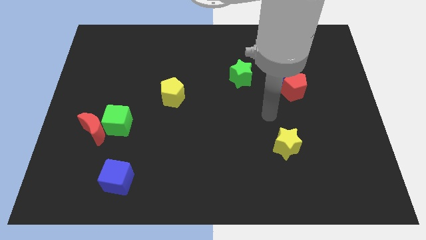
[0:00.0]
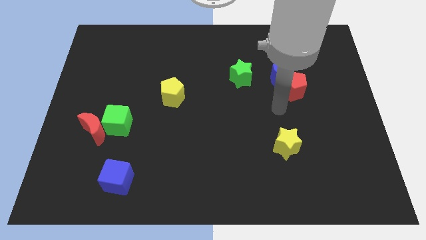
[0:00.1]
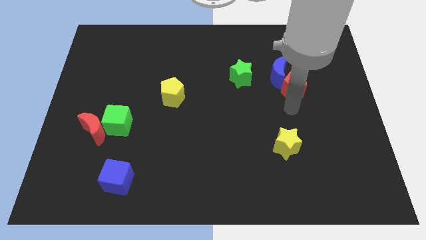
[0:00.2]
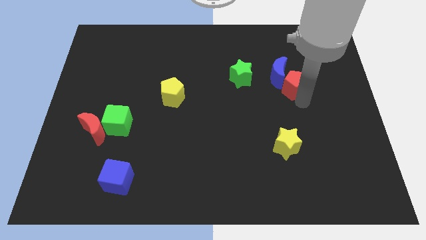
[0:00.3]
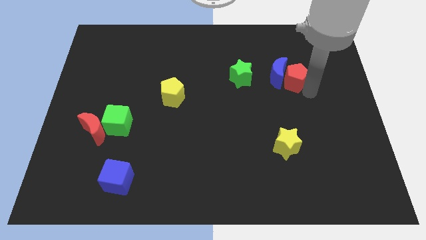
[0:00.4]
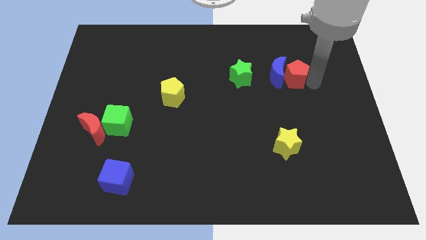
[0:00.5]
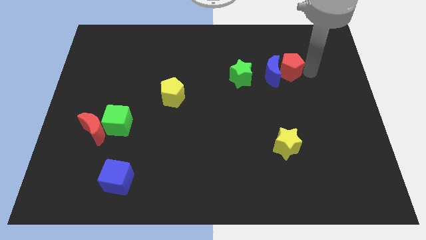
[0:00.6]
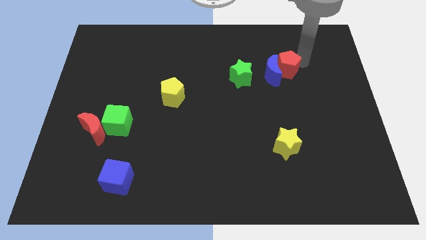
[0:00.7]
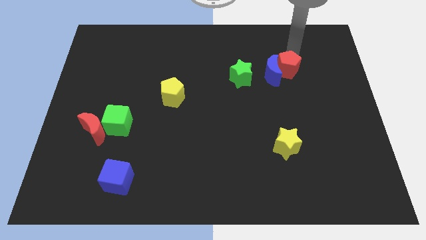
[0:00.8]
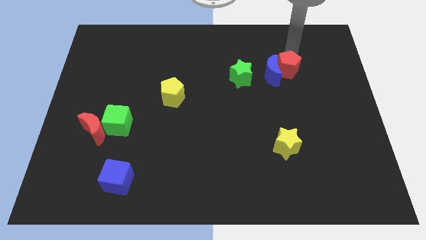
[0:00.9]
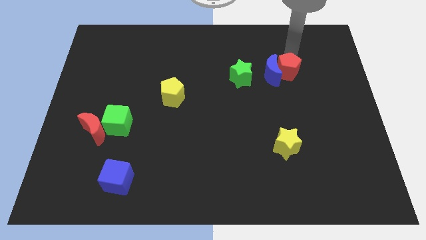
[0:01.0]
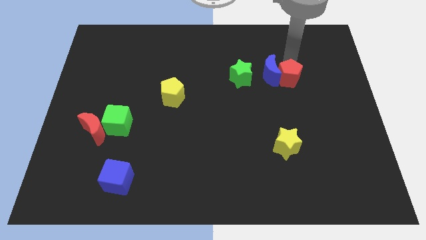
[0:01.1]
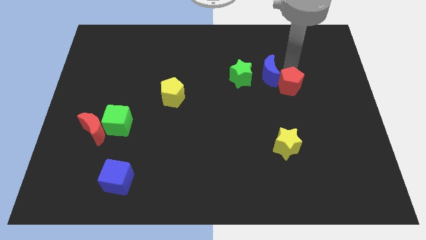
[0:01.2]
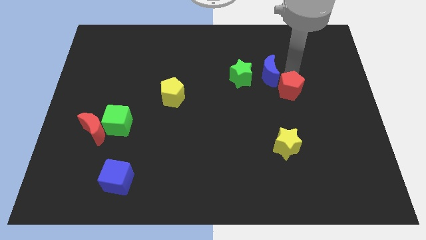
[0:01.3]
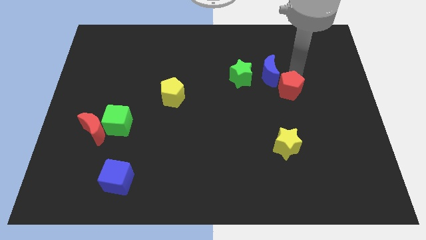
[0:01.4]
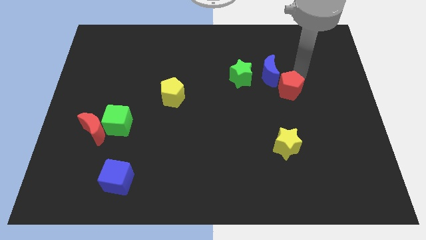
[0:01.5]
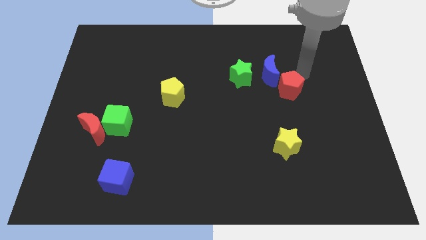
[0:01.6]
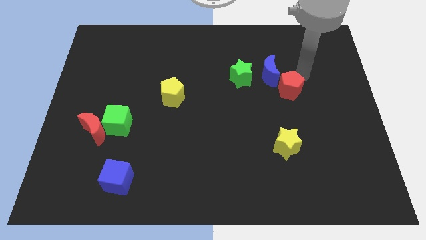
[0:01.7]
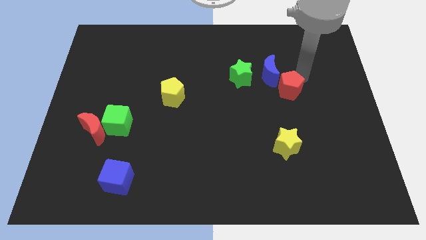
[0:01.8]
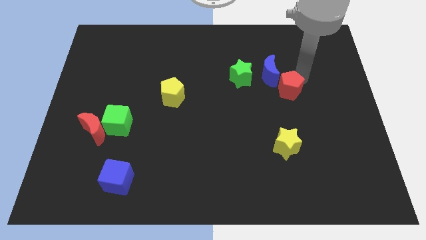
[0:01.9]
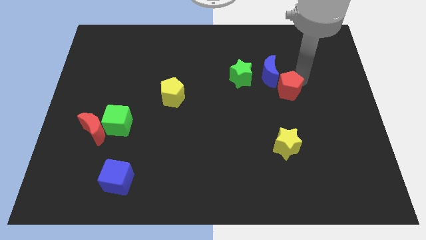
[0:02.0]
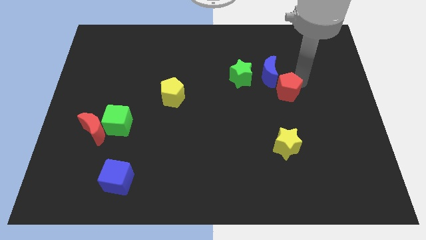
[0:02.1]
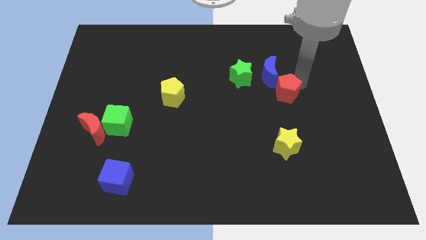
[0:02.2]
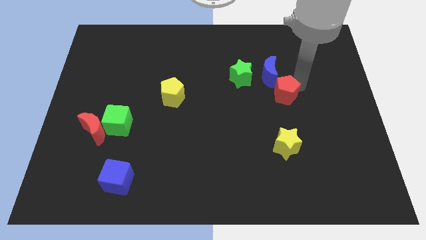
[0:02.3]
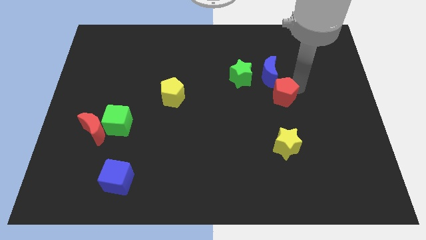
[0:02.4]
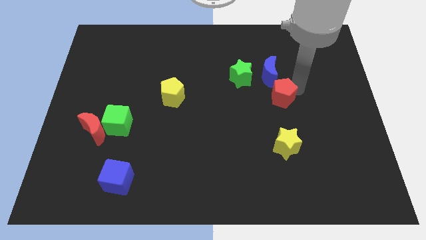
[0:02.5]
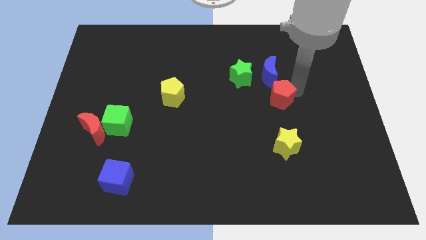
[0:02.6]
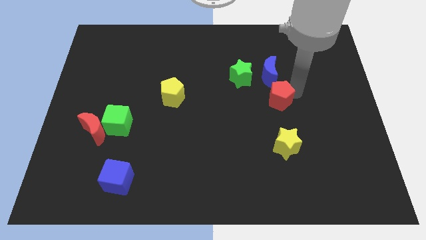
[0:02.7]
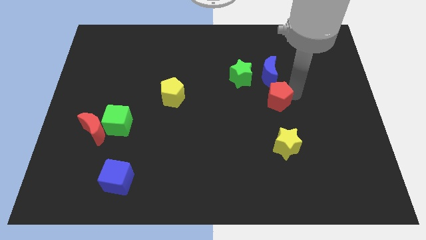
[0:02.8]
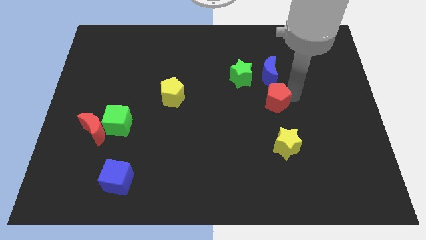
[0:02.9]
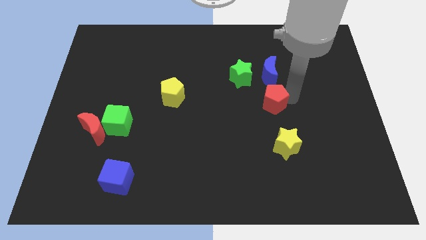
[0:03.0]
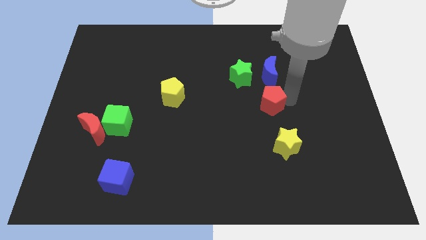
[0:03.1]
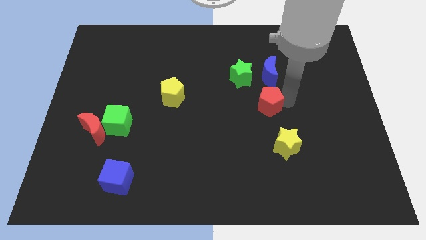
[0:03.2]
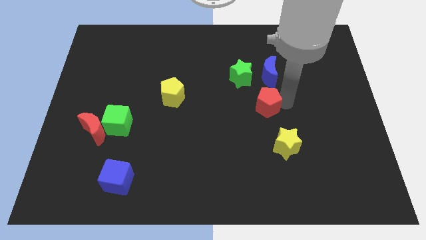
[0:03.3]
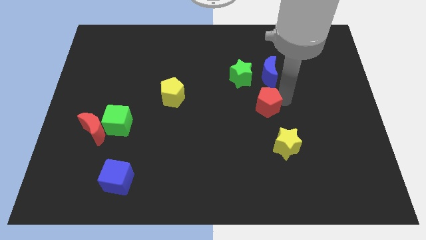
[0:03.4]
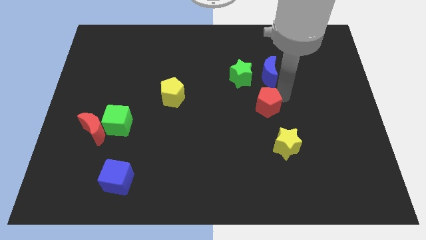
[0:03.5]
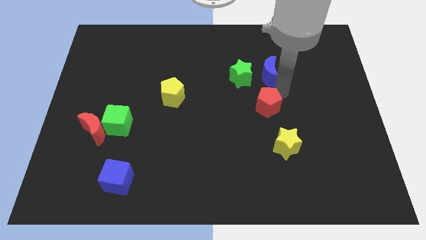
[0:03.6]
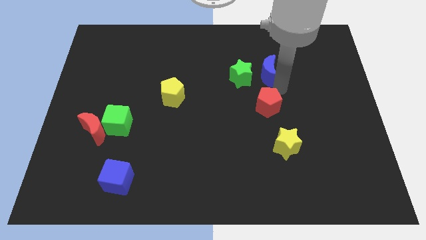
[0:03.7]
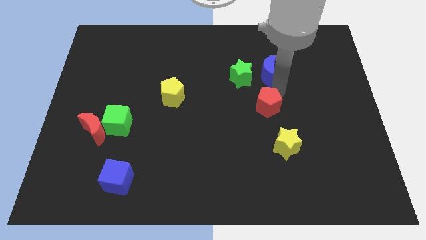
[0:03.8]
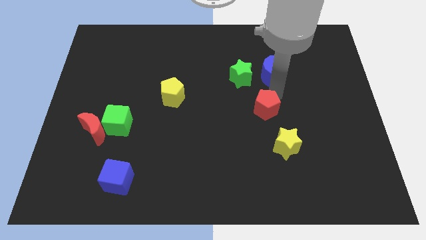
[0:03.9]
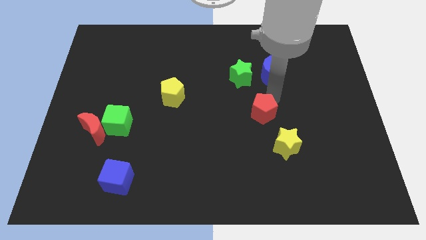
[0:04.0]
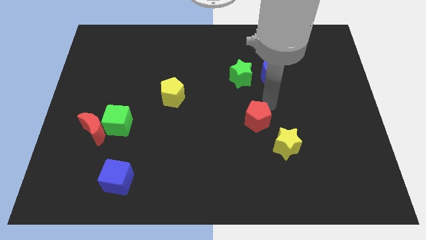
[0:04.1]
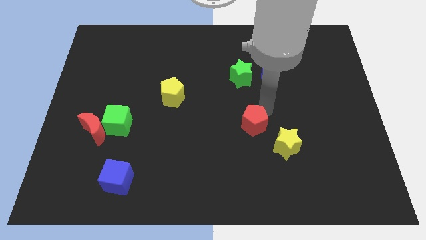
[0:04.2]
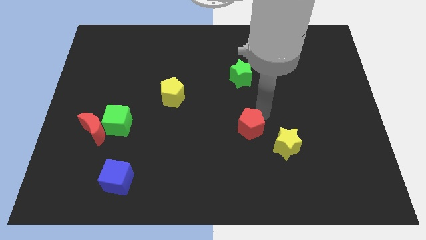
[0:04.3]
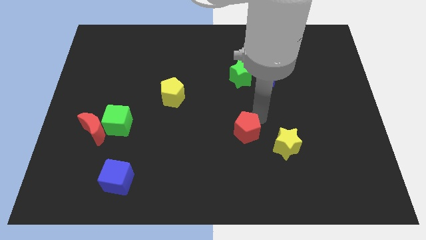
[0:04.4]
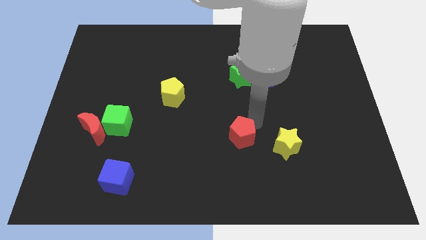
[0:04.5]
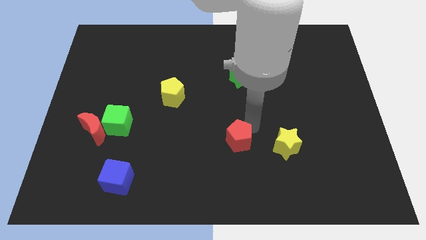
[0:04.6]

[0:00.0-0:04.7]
push the red pentagon downwards and to the left diagonally

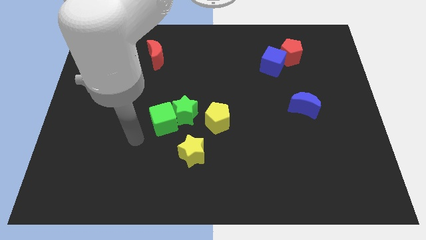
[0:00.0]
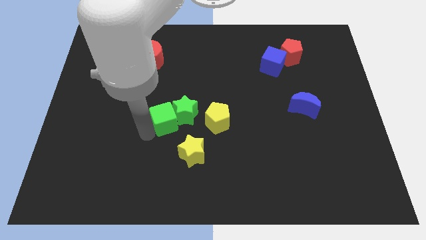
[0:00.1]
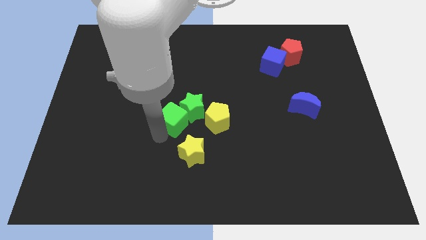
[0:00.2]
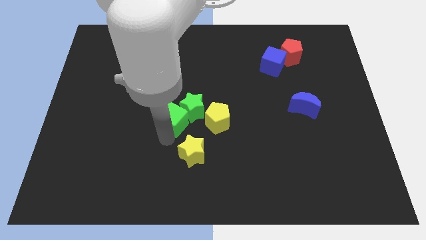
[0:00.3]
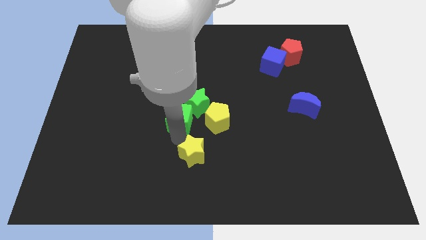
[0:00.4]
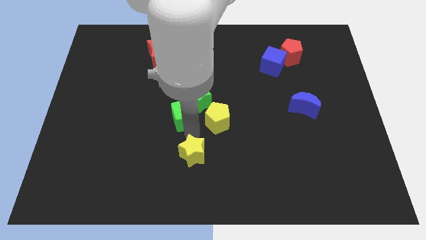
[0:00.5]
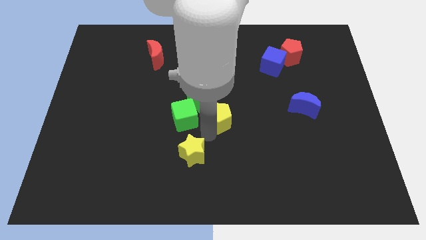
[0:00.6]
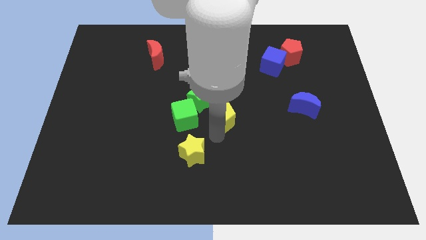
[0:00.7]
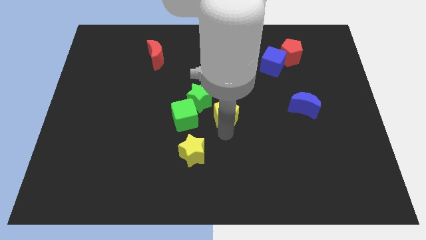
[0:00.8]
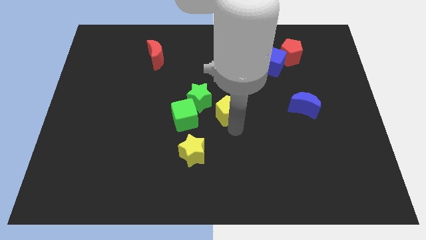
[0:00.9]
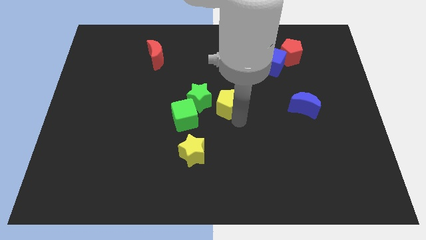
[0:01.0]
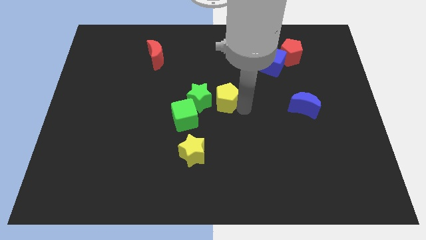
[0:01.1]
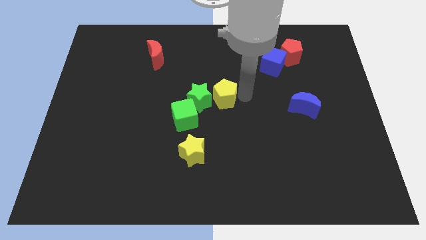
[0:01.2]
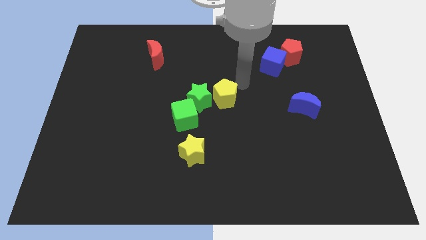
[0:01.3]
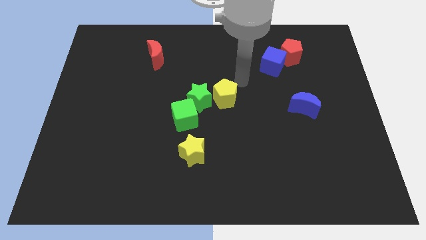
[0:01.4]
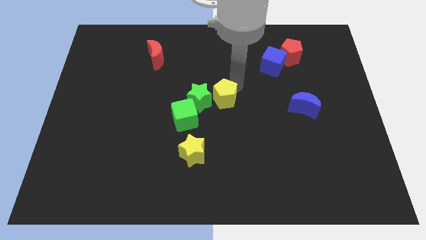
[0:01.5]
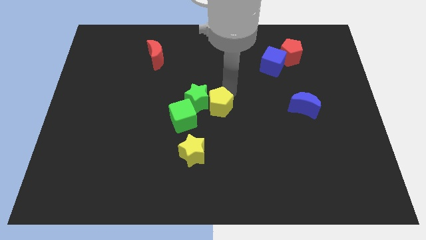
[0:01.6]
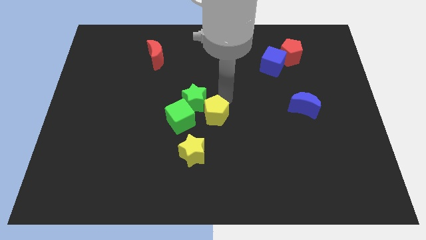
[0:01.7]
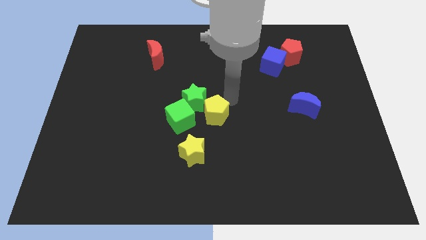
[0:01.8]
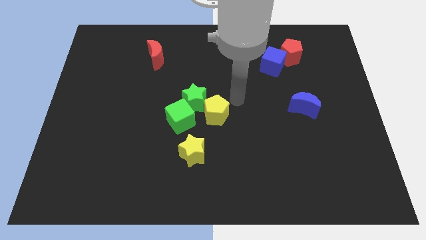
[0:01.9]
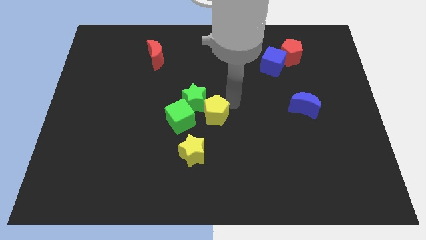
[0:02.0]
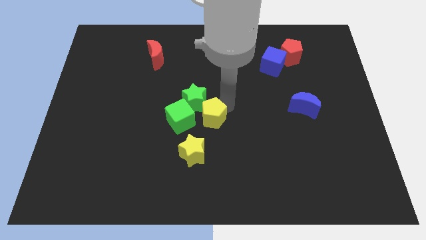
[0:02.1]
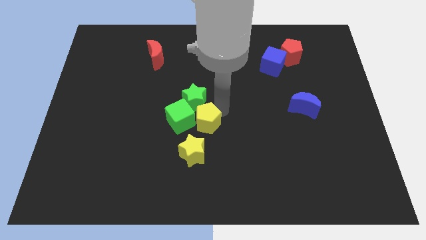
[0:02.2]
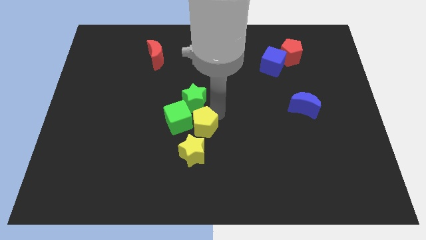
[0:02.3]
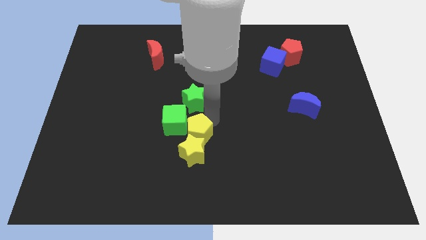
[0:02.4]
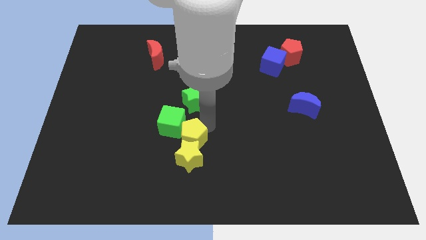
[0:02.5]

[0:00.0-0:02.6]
move the yellow pentagon a little down and then left

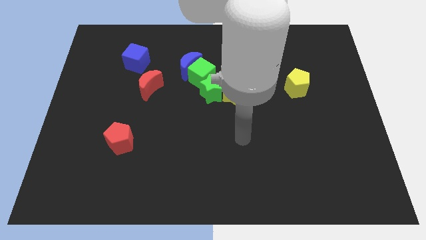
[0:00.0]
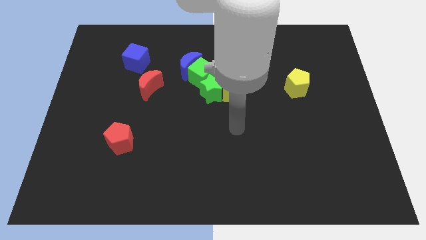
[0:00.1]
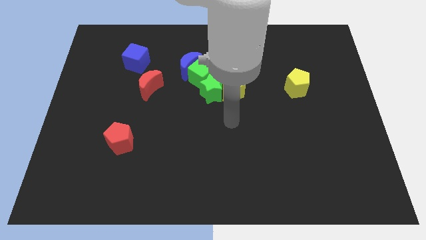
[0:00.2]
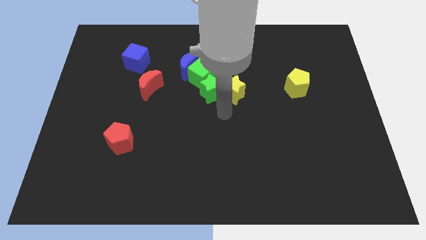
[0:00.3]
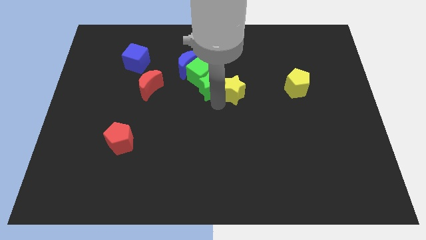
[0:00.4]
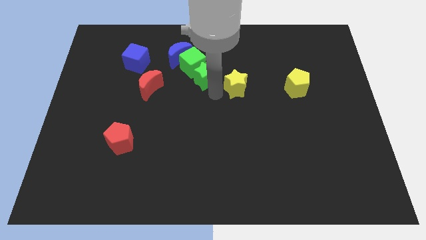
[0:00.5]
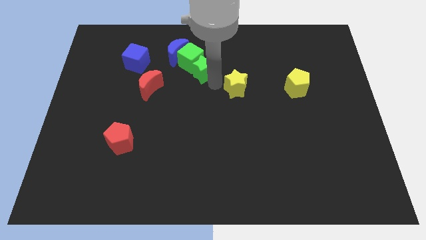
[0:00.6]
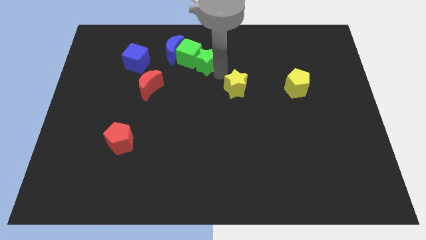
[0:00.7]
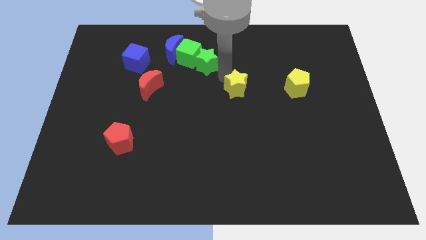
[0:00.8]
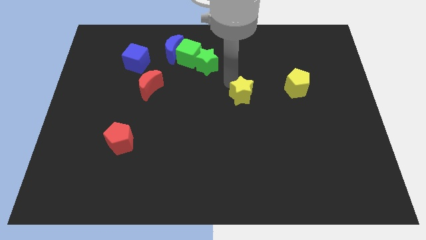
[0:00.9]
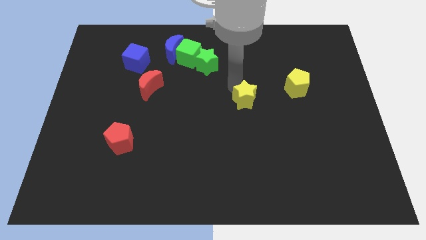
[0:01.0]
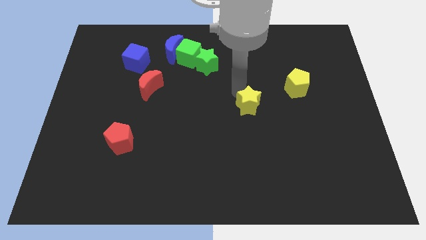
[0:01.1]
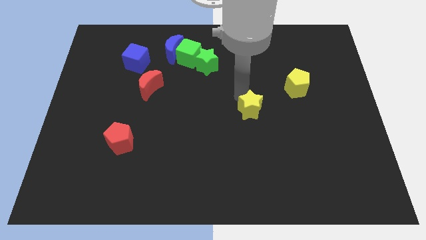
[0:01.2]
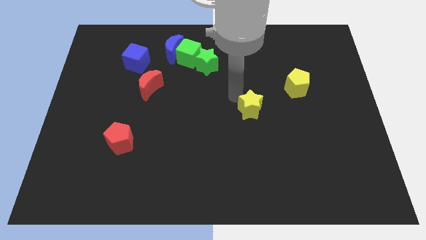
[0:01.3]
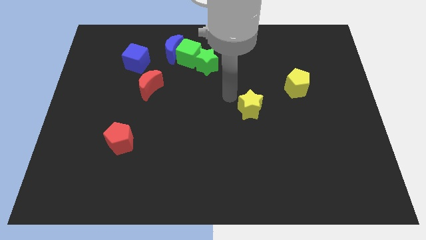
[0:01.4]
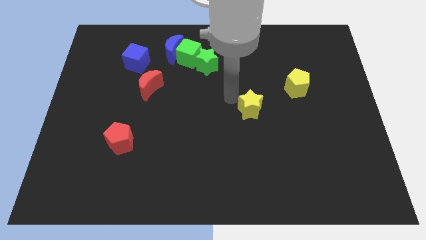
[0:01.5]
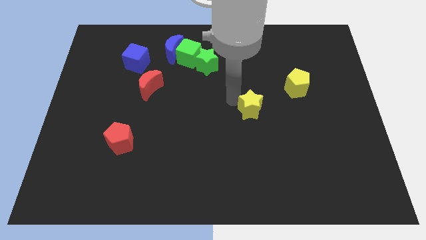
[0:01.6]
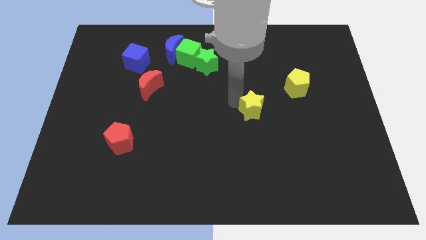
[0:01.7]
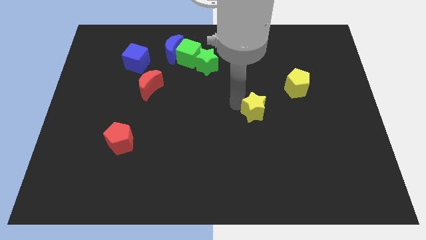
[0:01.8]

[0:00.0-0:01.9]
slightly move the yellow star downwards and to the right diagonally
